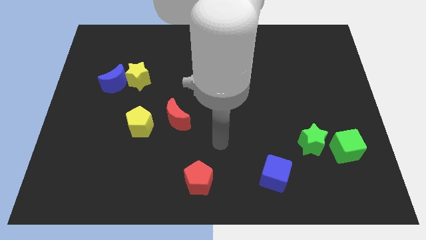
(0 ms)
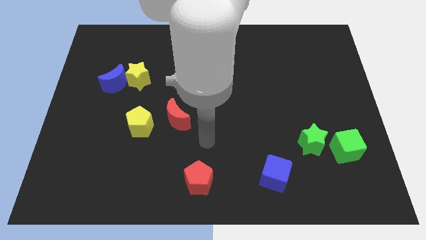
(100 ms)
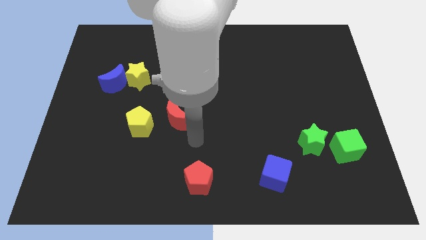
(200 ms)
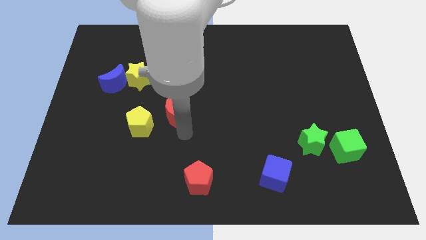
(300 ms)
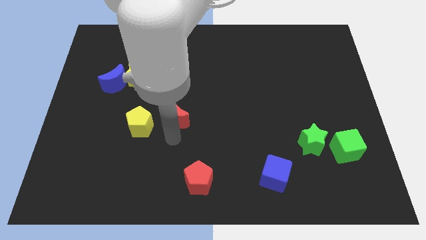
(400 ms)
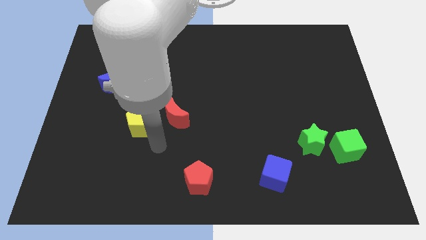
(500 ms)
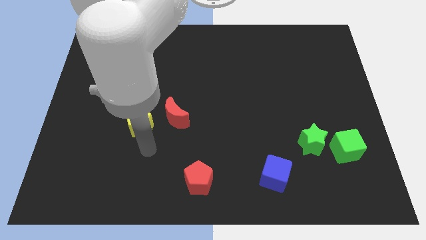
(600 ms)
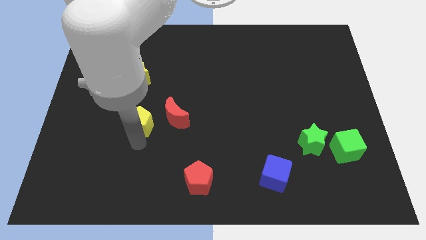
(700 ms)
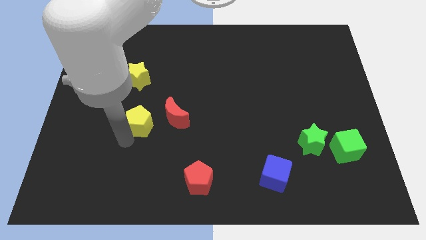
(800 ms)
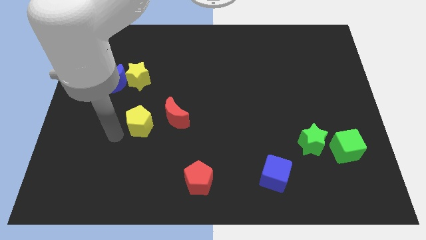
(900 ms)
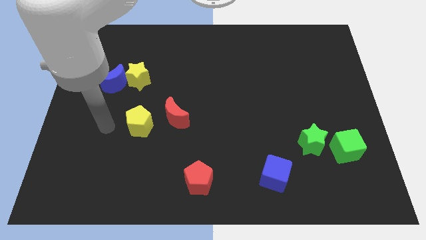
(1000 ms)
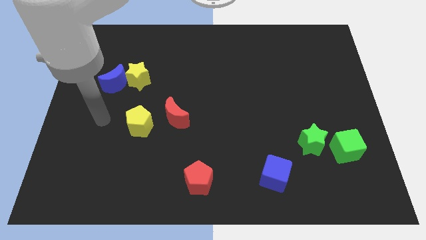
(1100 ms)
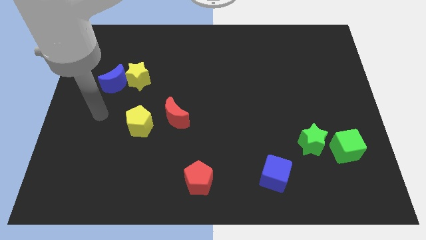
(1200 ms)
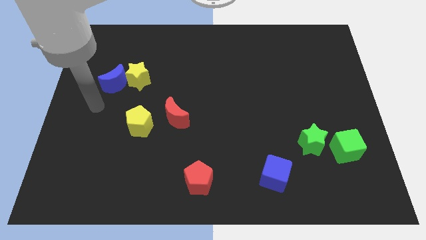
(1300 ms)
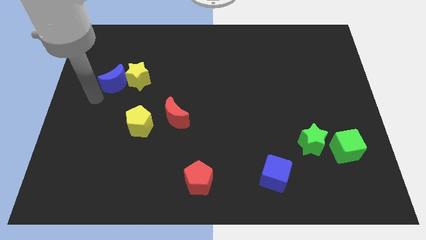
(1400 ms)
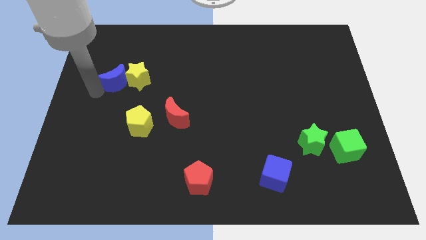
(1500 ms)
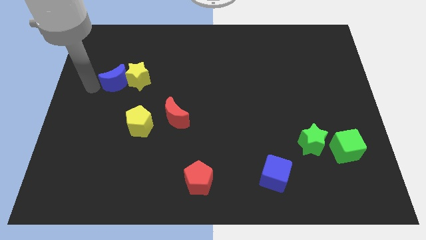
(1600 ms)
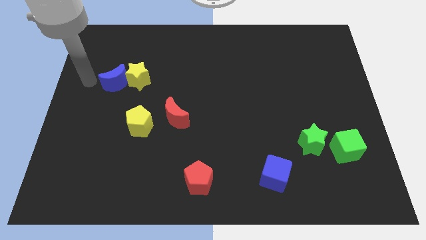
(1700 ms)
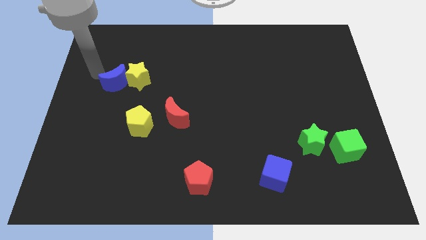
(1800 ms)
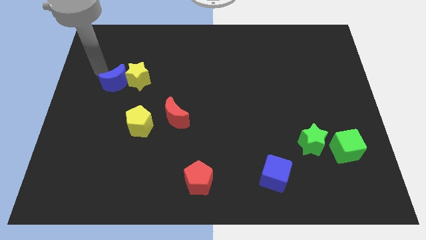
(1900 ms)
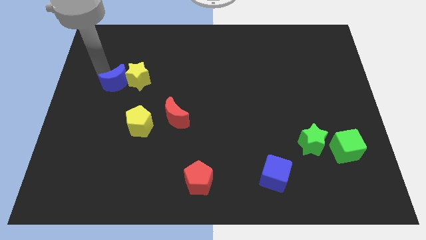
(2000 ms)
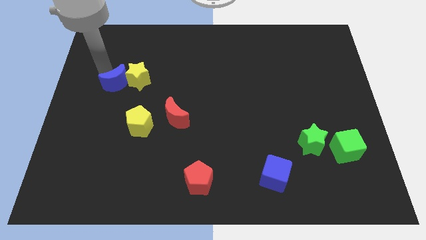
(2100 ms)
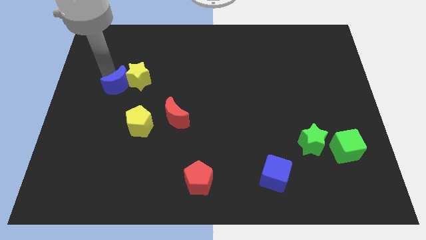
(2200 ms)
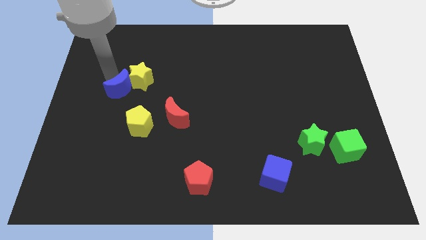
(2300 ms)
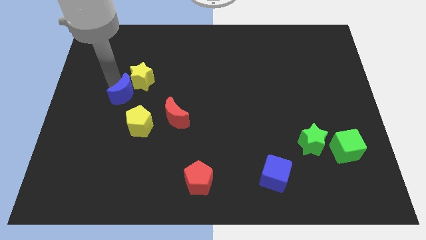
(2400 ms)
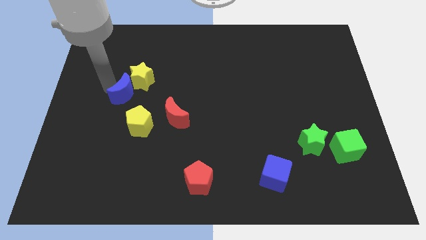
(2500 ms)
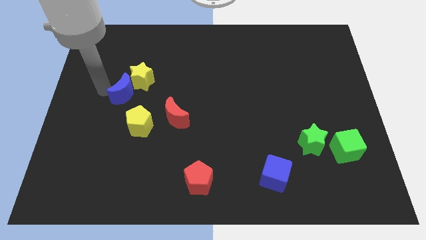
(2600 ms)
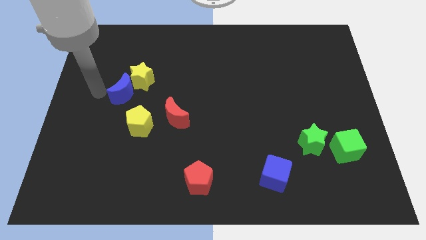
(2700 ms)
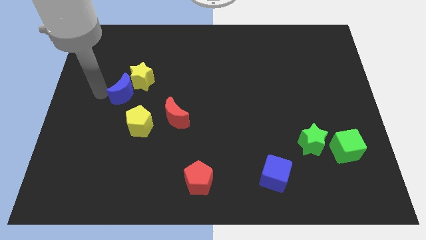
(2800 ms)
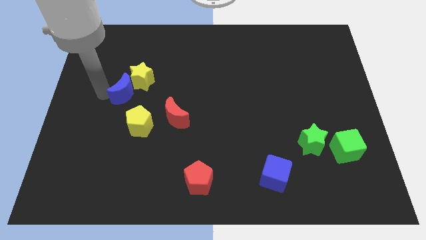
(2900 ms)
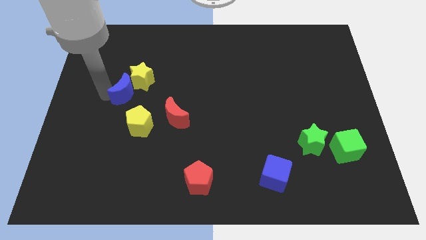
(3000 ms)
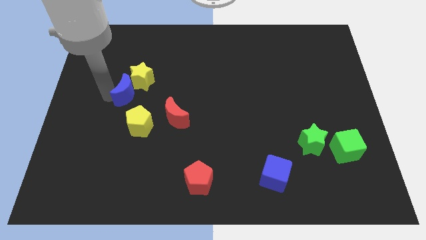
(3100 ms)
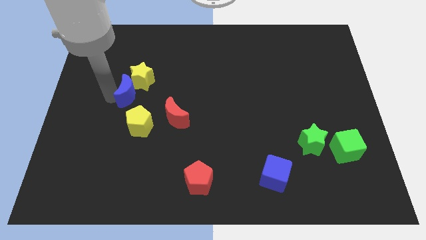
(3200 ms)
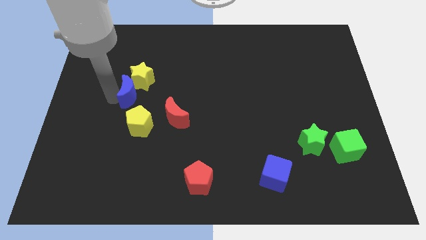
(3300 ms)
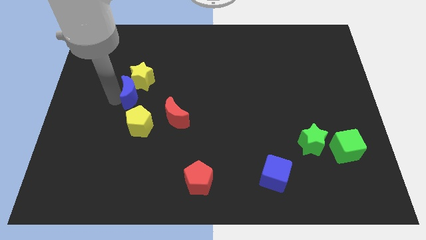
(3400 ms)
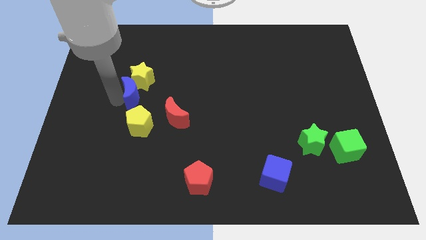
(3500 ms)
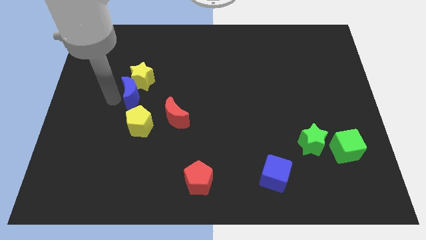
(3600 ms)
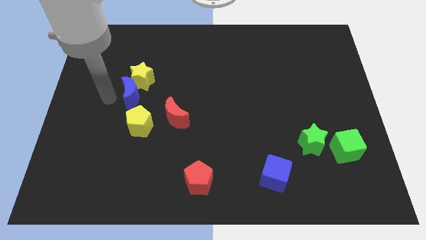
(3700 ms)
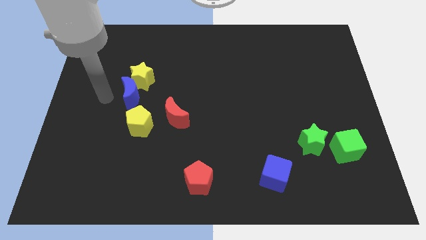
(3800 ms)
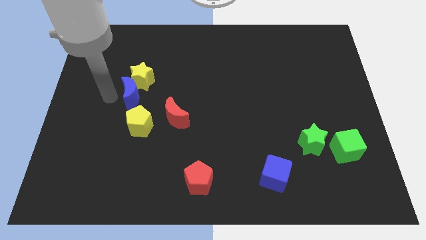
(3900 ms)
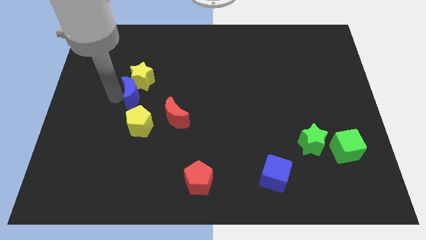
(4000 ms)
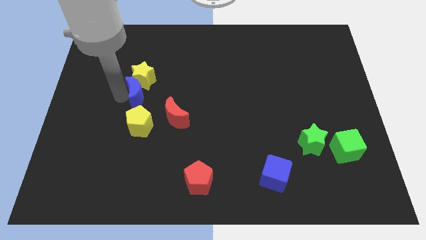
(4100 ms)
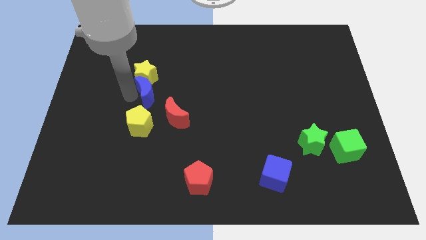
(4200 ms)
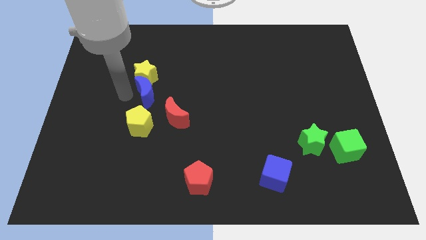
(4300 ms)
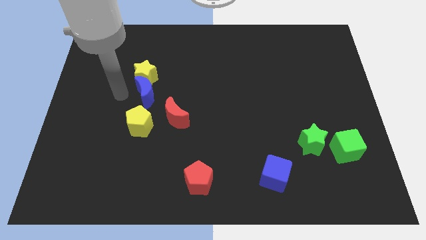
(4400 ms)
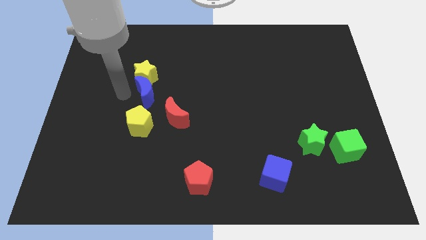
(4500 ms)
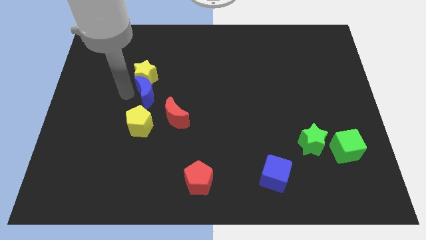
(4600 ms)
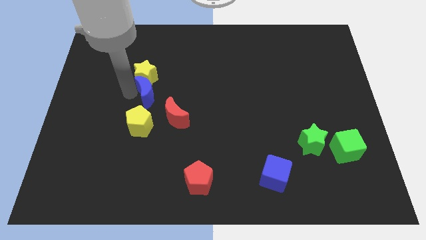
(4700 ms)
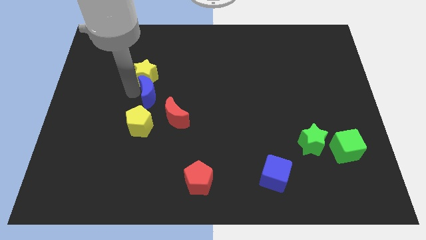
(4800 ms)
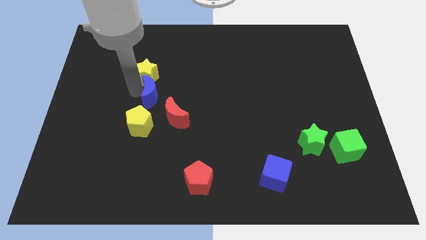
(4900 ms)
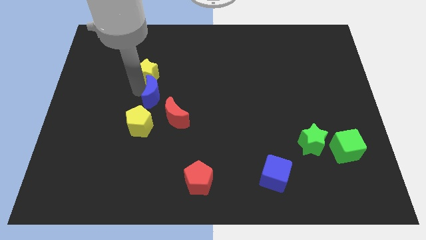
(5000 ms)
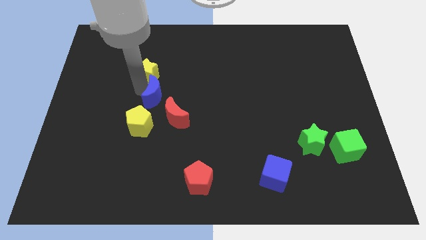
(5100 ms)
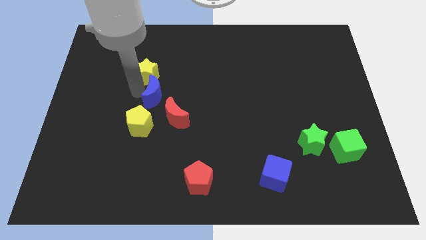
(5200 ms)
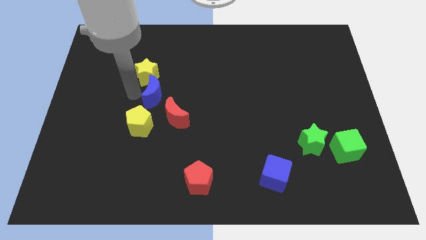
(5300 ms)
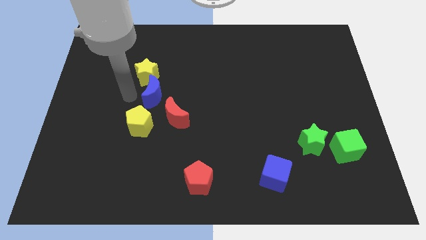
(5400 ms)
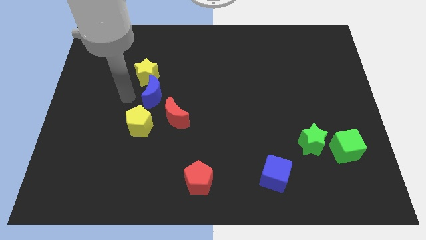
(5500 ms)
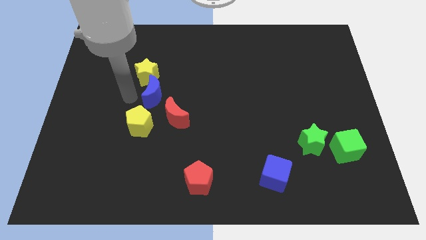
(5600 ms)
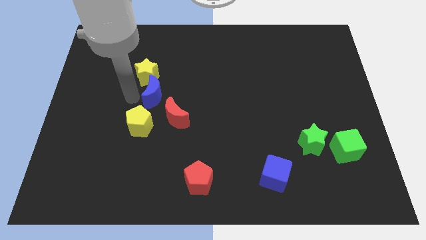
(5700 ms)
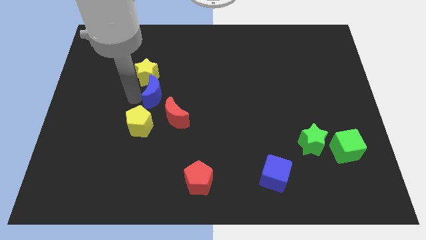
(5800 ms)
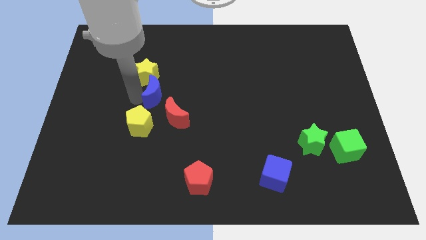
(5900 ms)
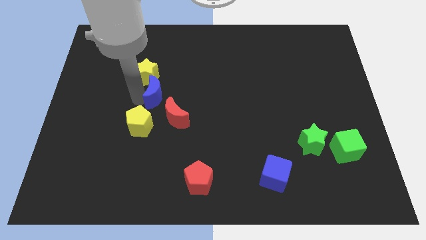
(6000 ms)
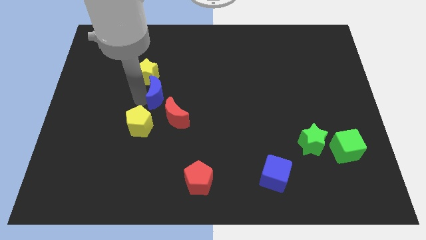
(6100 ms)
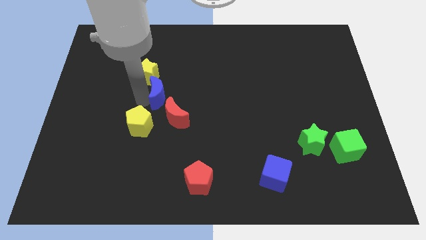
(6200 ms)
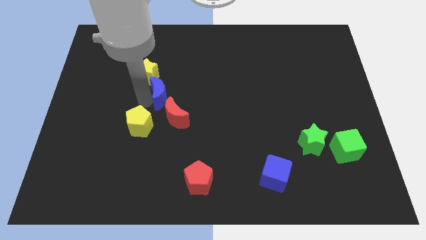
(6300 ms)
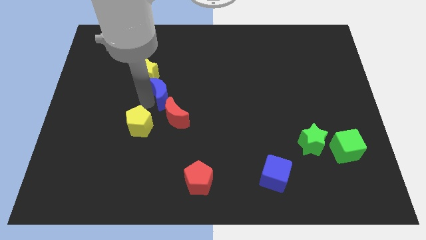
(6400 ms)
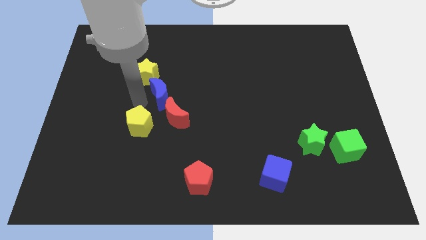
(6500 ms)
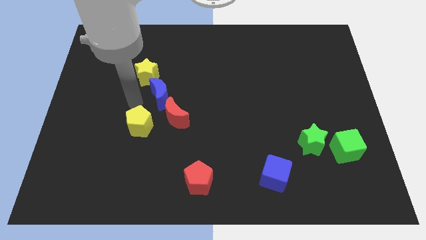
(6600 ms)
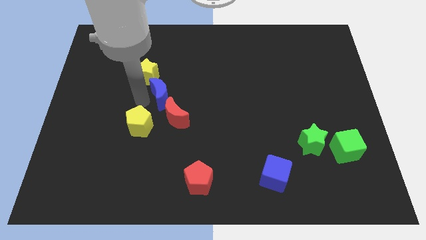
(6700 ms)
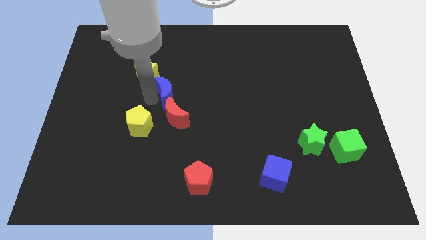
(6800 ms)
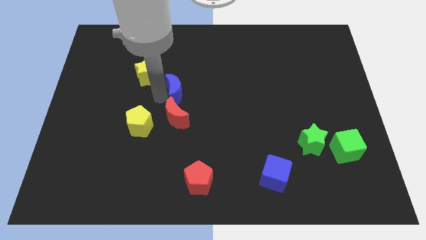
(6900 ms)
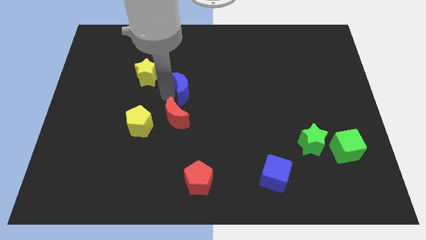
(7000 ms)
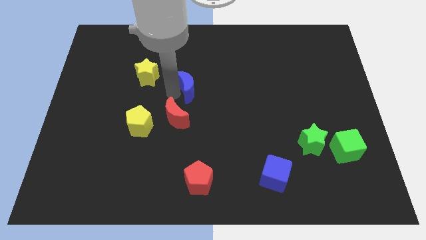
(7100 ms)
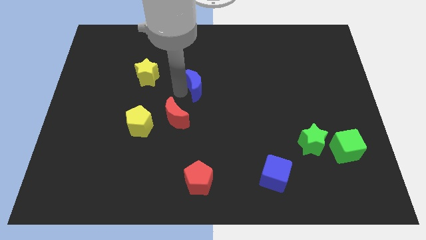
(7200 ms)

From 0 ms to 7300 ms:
move the blue moon right

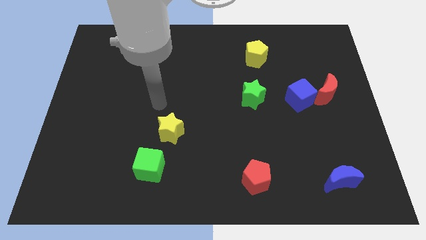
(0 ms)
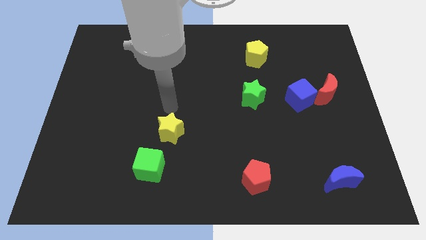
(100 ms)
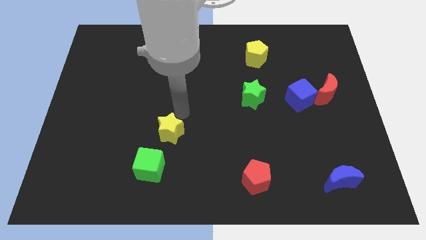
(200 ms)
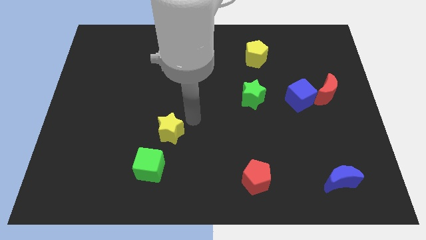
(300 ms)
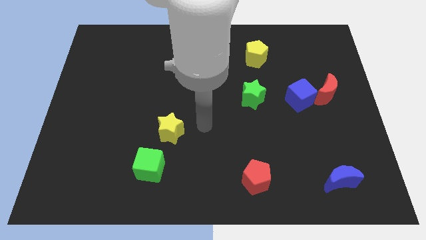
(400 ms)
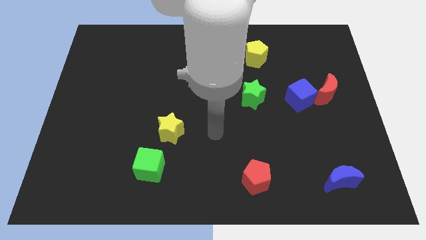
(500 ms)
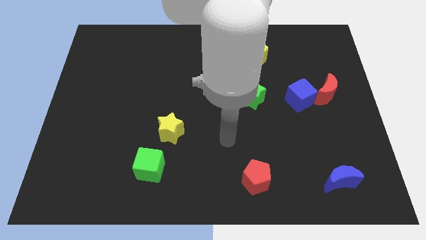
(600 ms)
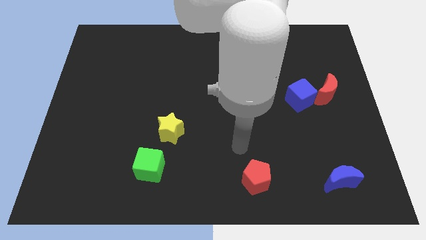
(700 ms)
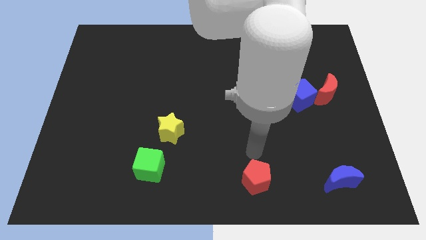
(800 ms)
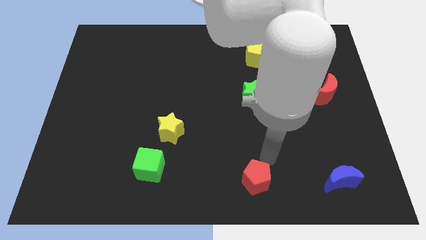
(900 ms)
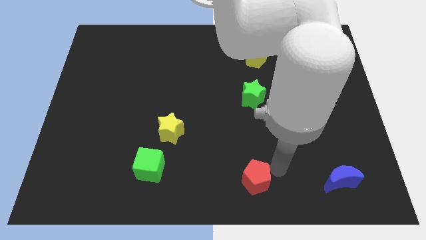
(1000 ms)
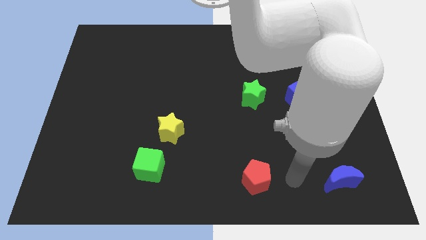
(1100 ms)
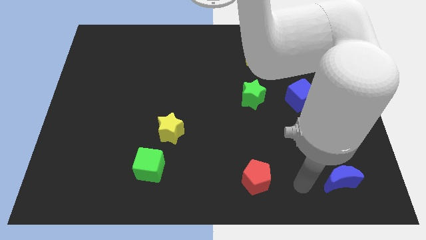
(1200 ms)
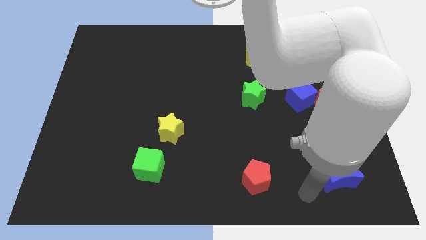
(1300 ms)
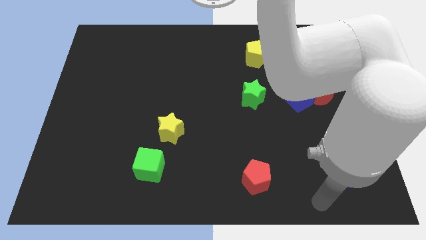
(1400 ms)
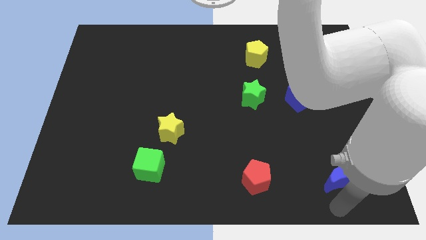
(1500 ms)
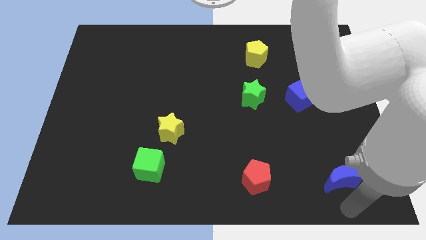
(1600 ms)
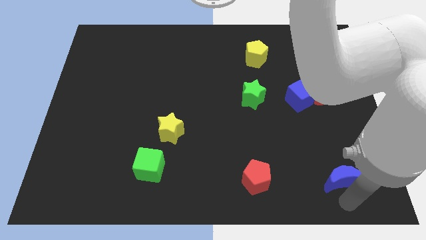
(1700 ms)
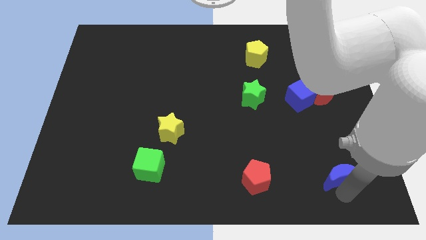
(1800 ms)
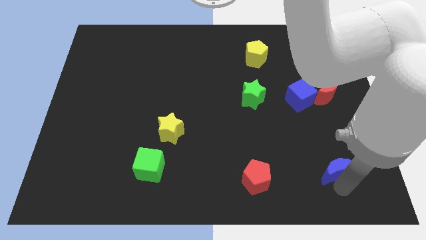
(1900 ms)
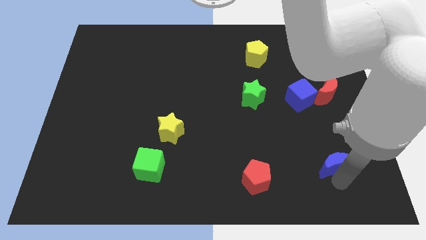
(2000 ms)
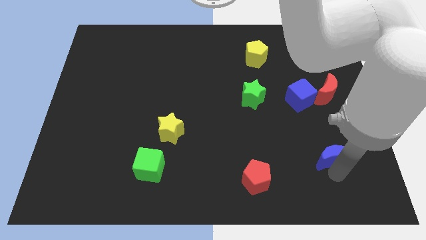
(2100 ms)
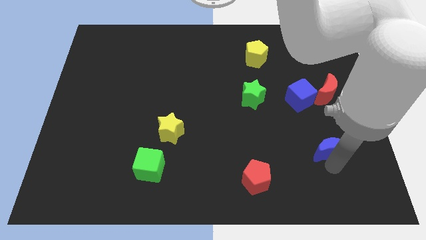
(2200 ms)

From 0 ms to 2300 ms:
push the blue moon up a bit
